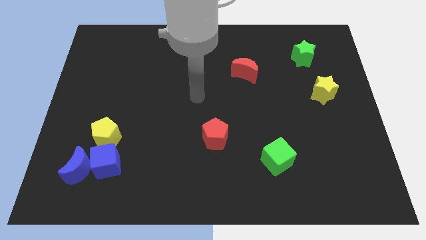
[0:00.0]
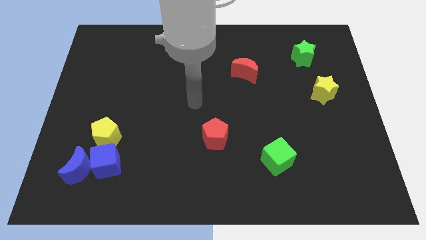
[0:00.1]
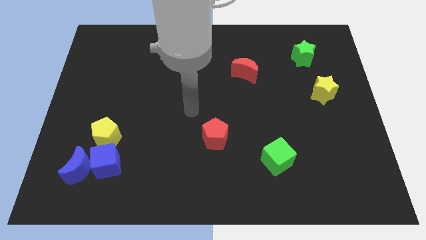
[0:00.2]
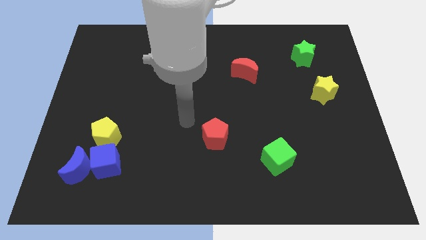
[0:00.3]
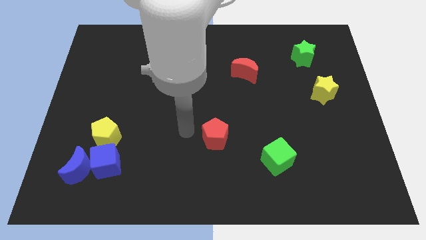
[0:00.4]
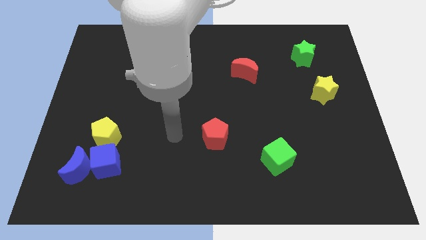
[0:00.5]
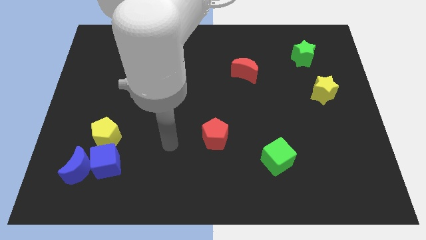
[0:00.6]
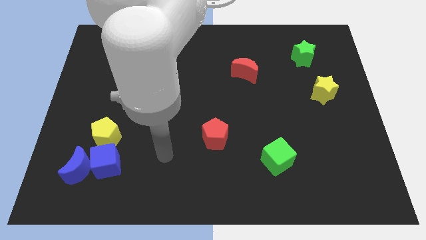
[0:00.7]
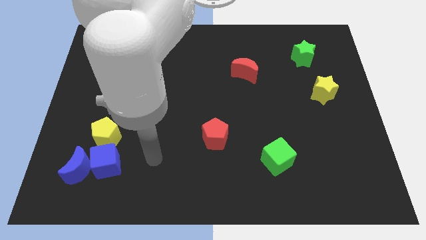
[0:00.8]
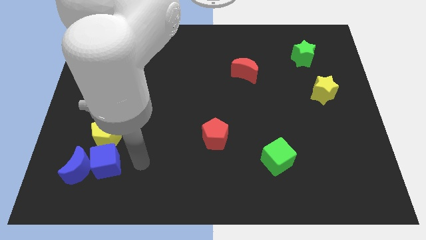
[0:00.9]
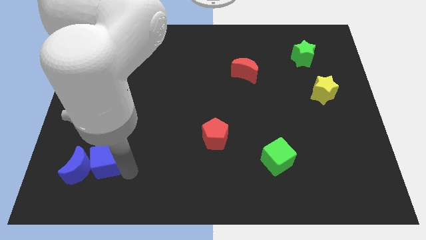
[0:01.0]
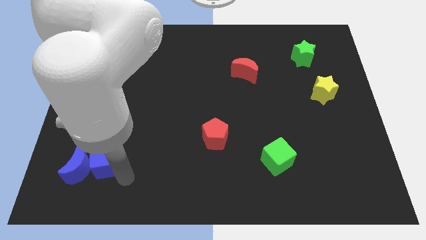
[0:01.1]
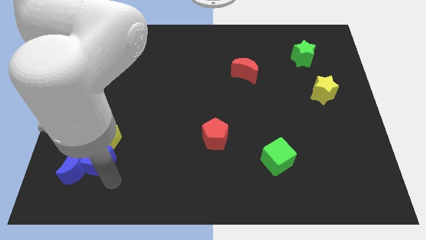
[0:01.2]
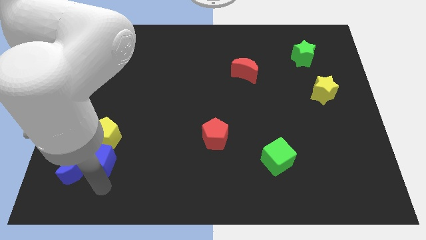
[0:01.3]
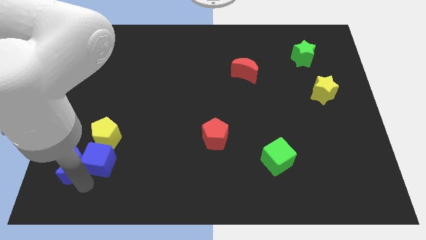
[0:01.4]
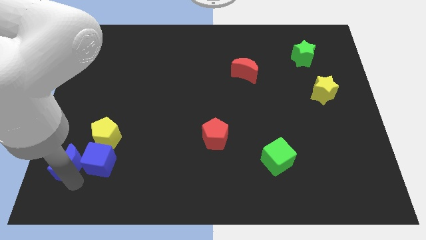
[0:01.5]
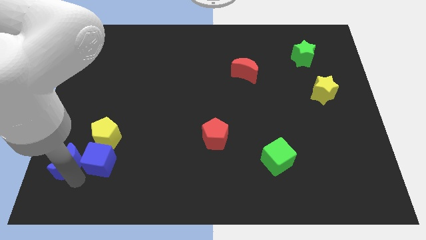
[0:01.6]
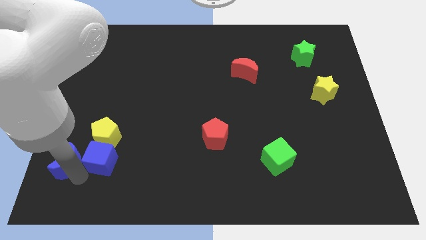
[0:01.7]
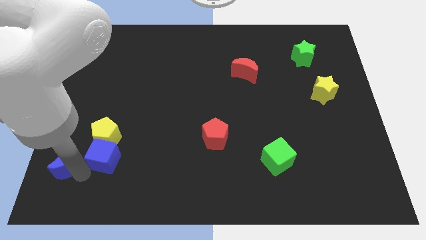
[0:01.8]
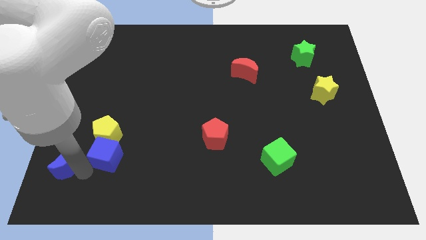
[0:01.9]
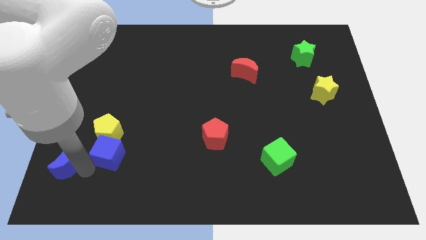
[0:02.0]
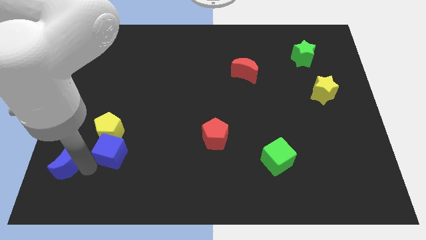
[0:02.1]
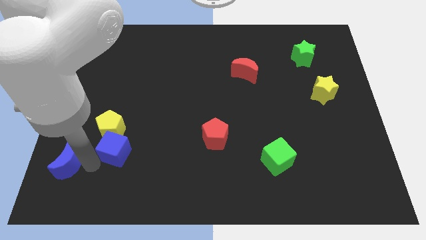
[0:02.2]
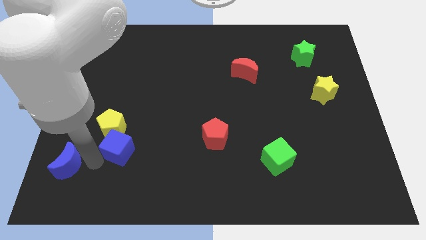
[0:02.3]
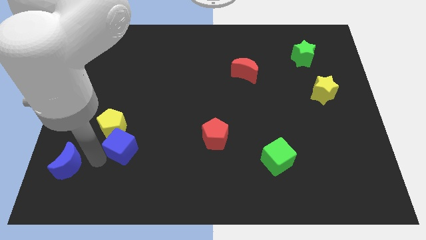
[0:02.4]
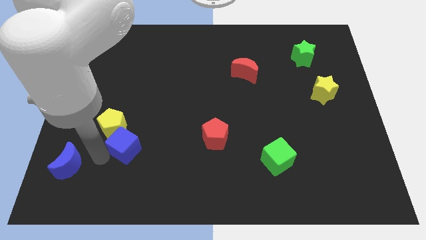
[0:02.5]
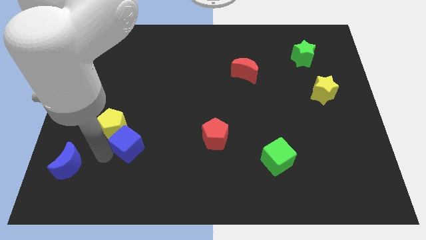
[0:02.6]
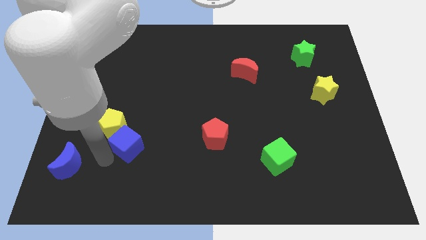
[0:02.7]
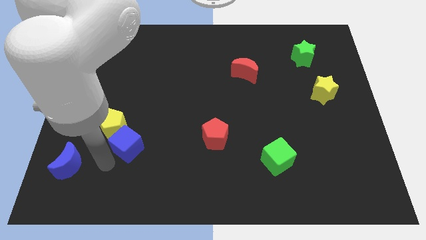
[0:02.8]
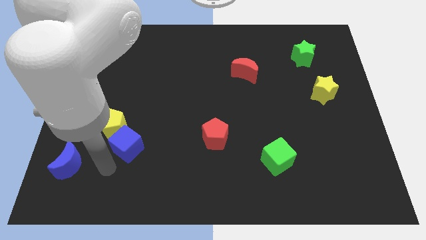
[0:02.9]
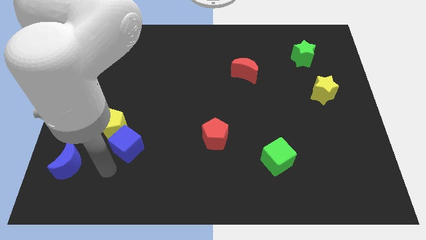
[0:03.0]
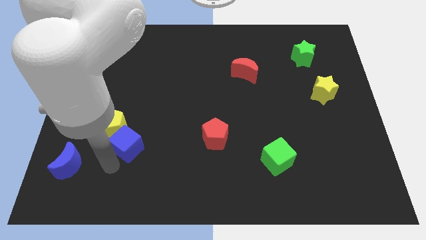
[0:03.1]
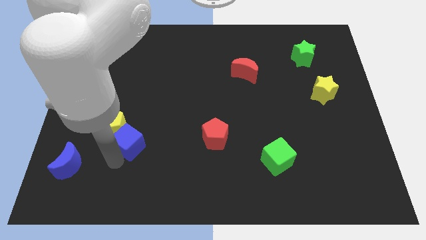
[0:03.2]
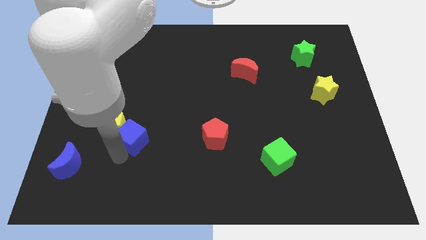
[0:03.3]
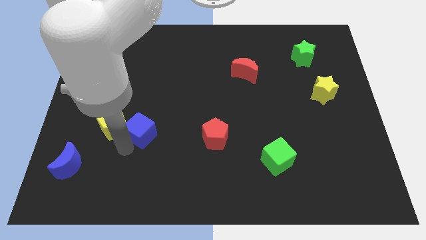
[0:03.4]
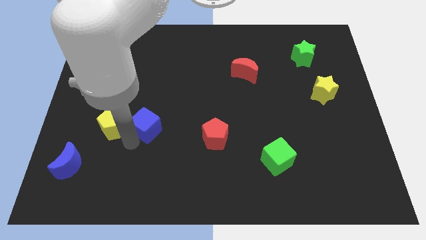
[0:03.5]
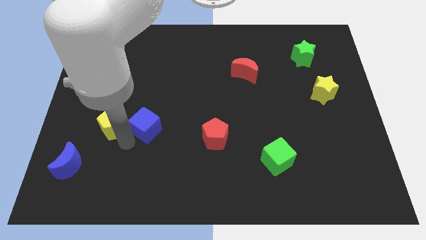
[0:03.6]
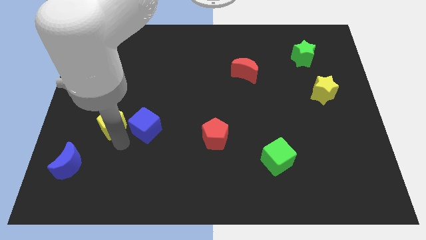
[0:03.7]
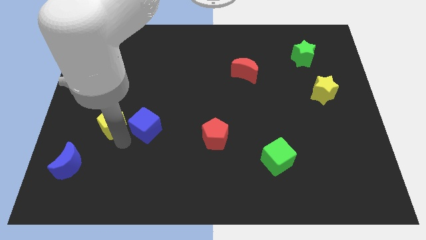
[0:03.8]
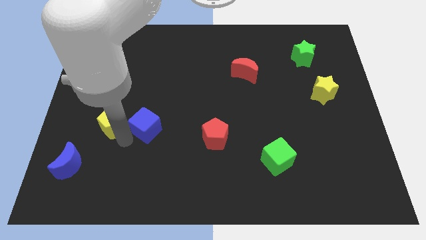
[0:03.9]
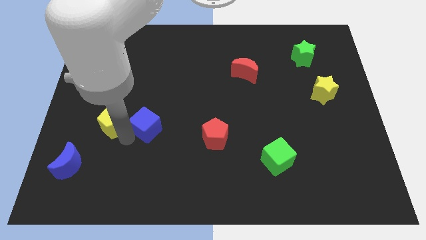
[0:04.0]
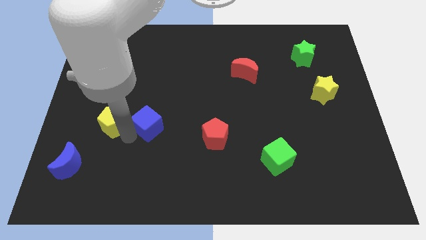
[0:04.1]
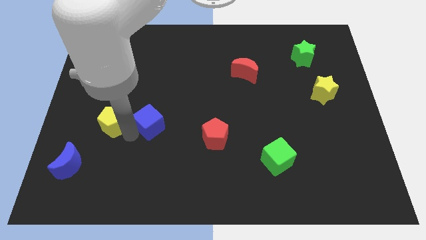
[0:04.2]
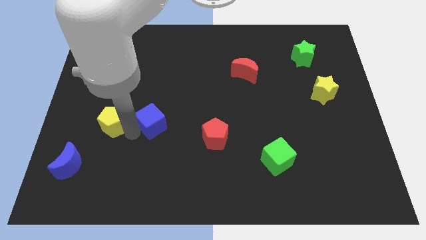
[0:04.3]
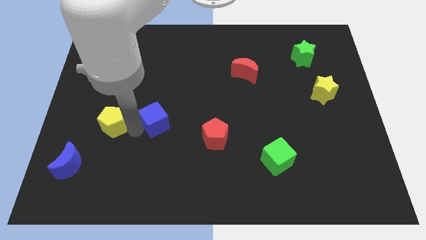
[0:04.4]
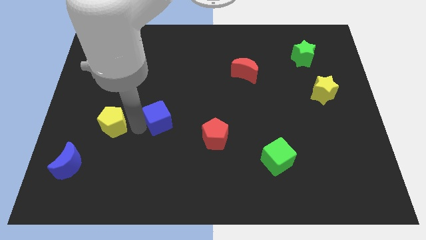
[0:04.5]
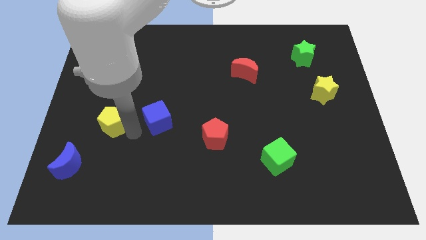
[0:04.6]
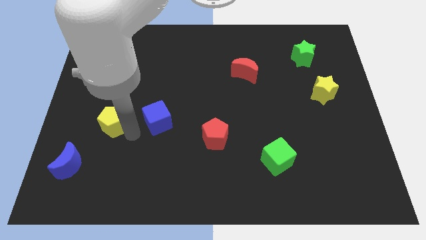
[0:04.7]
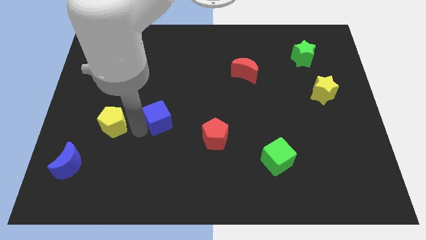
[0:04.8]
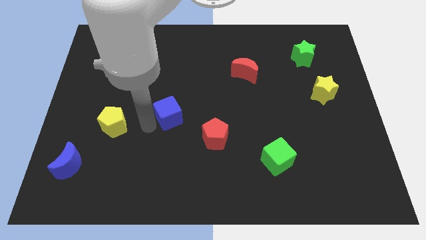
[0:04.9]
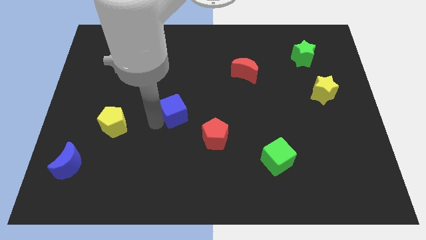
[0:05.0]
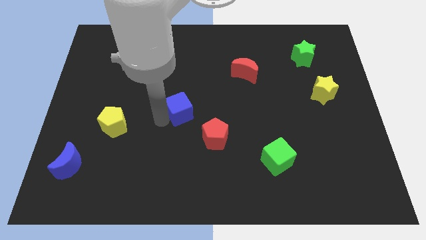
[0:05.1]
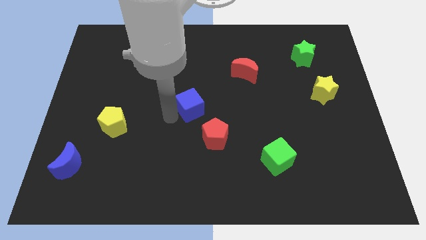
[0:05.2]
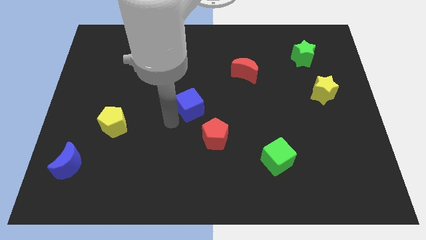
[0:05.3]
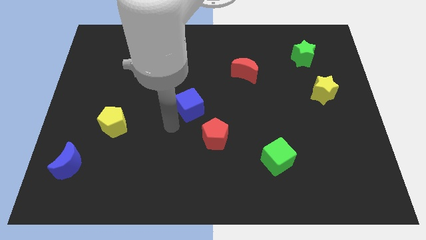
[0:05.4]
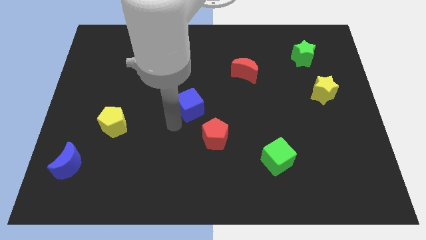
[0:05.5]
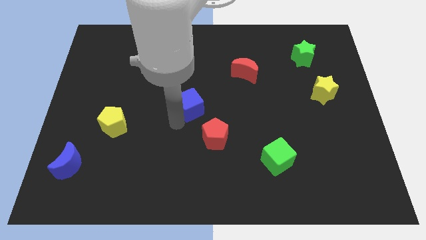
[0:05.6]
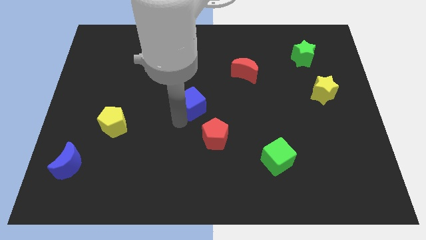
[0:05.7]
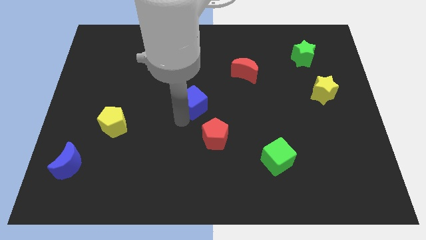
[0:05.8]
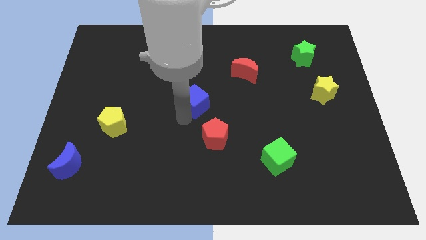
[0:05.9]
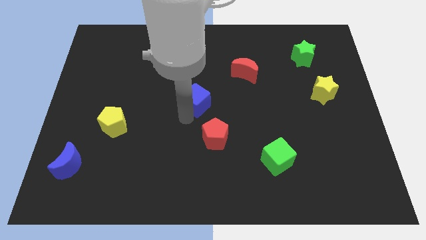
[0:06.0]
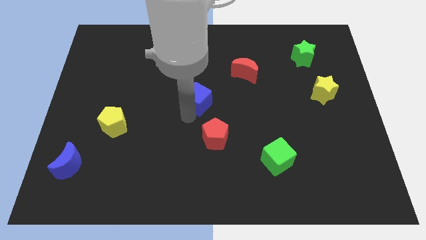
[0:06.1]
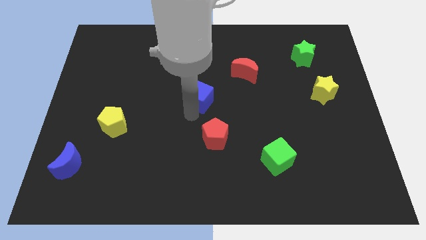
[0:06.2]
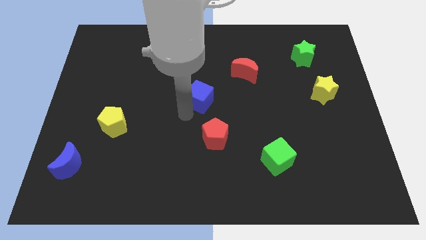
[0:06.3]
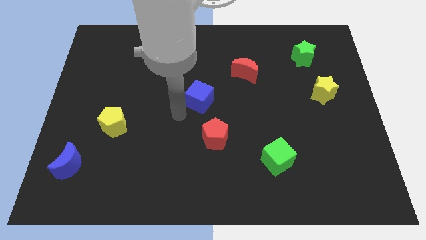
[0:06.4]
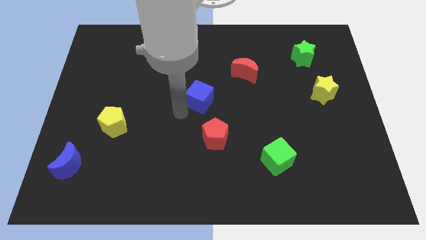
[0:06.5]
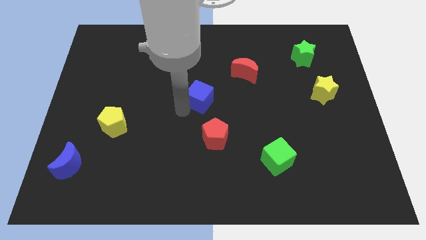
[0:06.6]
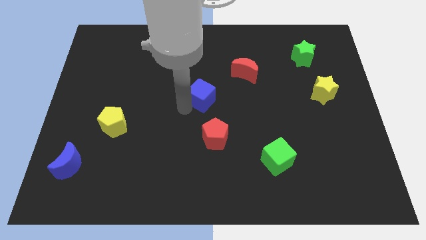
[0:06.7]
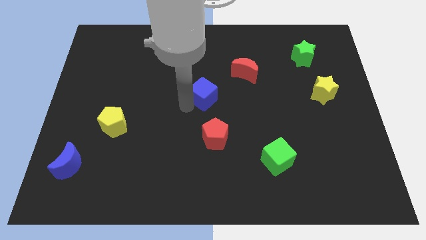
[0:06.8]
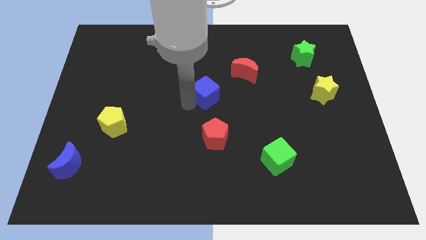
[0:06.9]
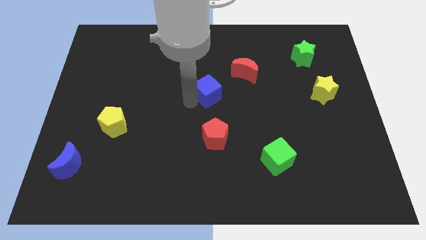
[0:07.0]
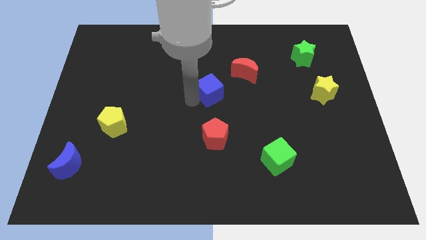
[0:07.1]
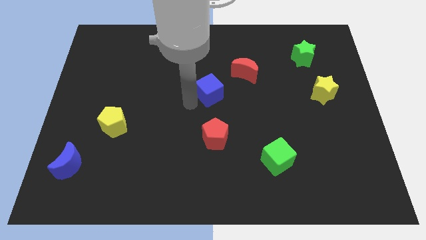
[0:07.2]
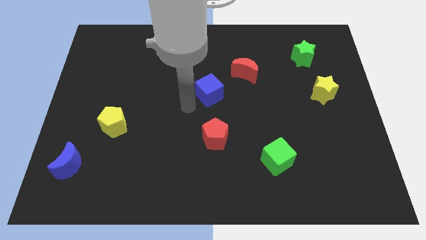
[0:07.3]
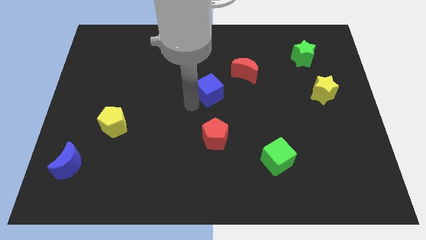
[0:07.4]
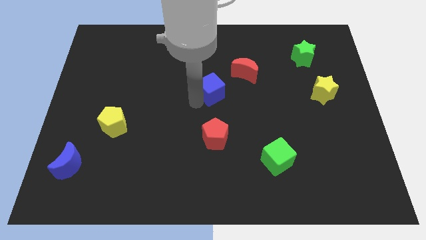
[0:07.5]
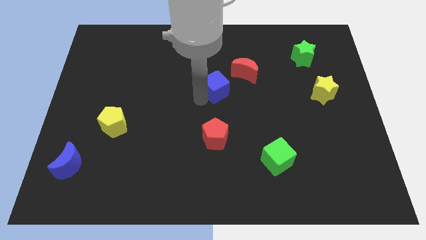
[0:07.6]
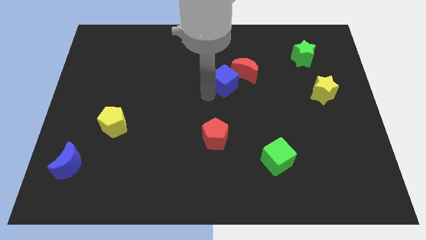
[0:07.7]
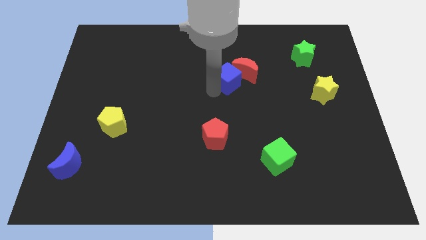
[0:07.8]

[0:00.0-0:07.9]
move the blue cube towards the red moon
